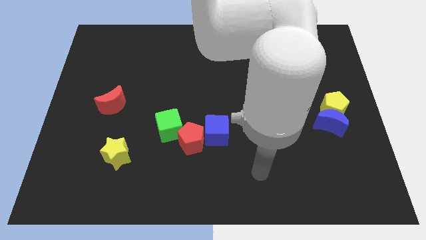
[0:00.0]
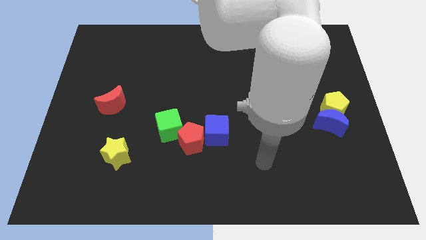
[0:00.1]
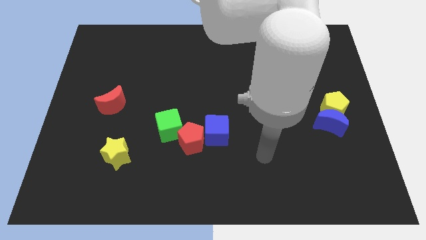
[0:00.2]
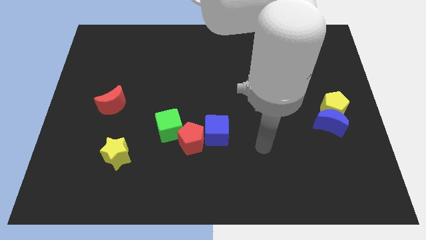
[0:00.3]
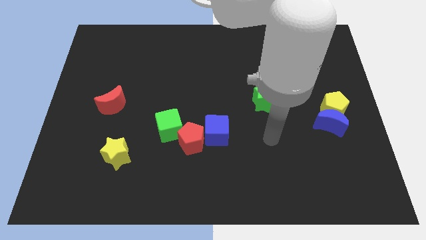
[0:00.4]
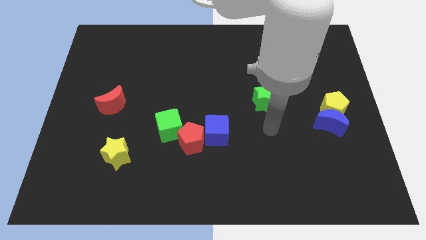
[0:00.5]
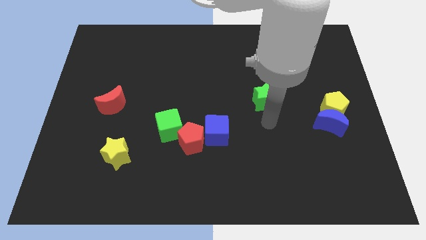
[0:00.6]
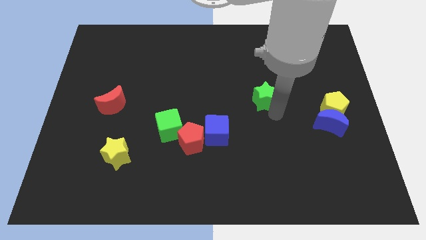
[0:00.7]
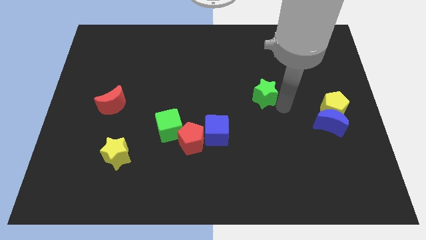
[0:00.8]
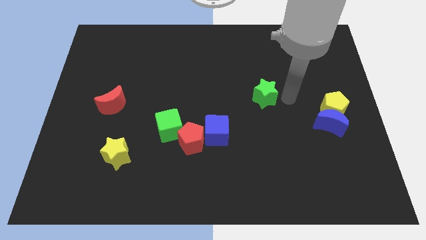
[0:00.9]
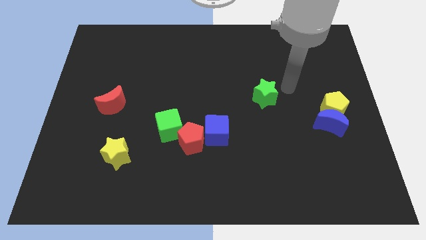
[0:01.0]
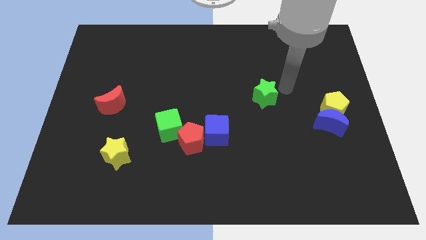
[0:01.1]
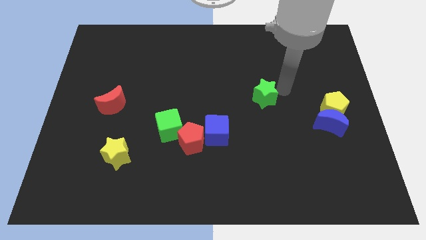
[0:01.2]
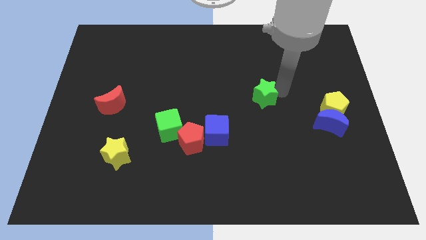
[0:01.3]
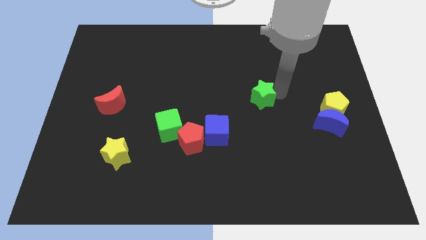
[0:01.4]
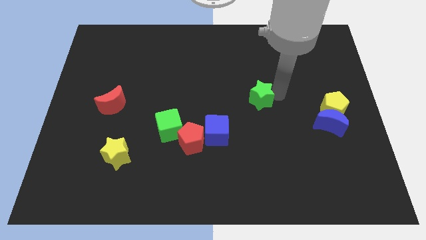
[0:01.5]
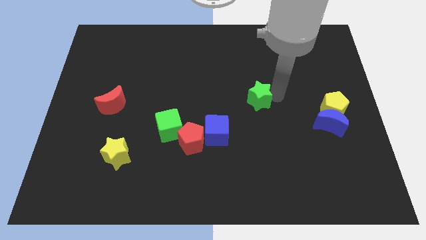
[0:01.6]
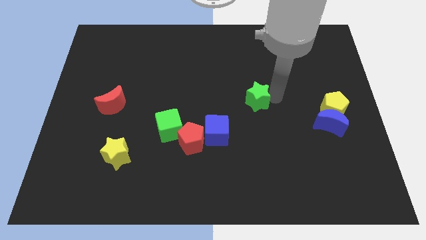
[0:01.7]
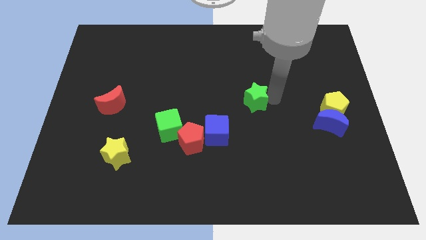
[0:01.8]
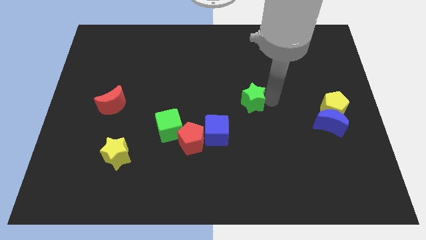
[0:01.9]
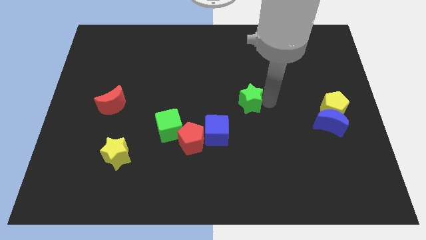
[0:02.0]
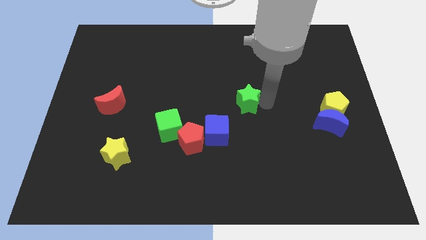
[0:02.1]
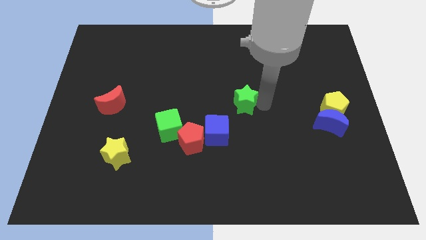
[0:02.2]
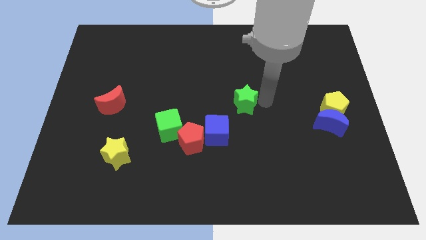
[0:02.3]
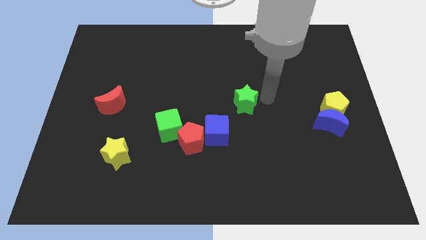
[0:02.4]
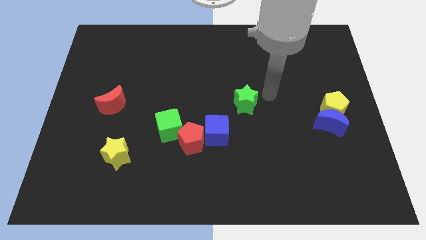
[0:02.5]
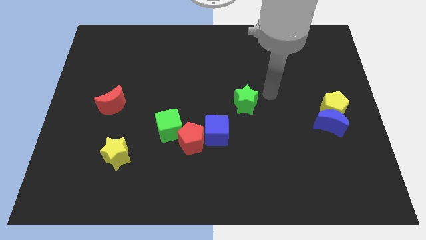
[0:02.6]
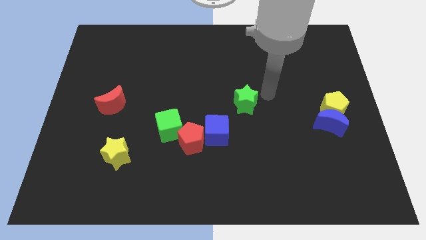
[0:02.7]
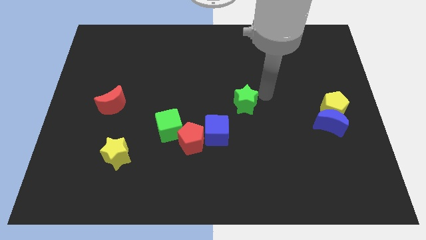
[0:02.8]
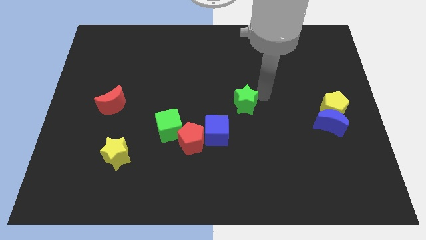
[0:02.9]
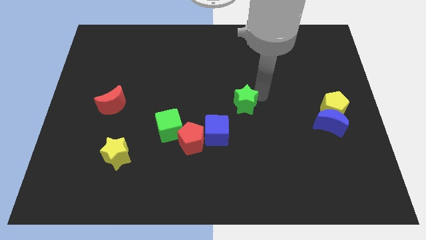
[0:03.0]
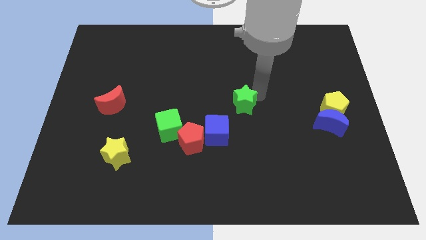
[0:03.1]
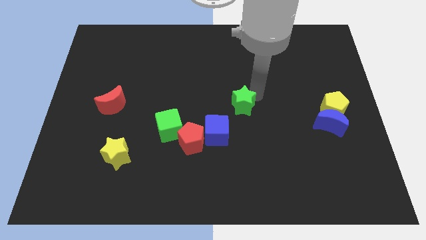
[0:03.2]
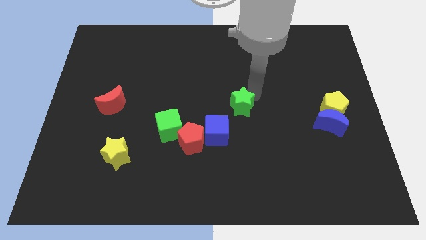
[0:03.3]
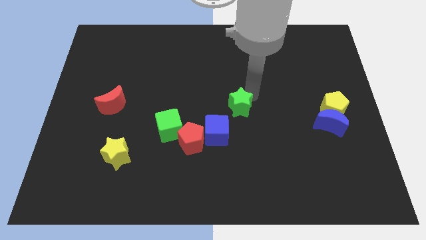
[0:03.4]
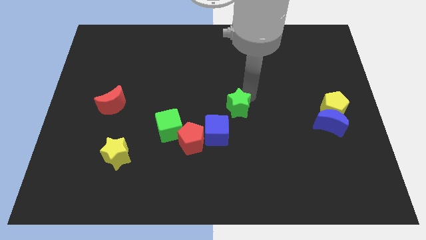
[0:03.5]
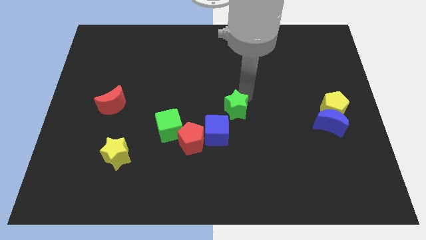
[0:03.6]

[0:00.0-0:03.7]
slide the green star somewhat to the left

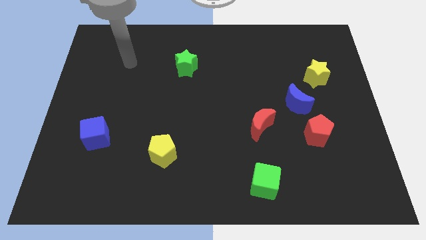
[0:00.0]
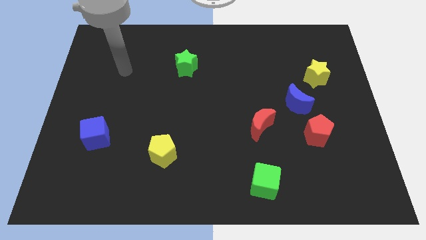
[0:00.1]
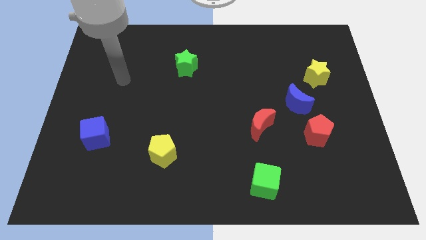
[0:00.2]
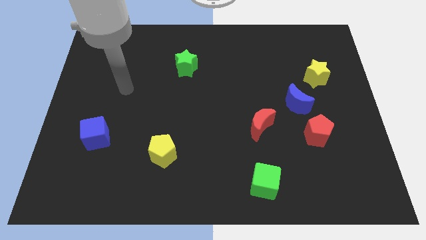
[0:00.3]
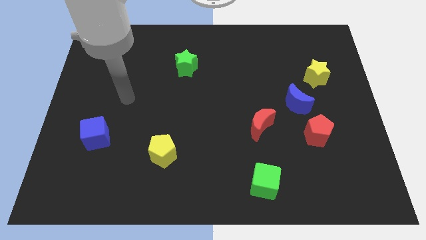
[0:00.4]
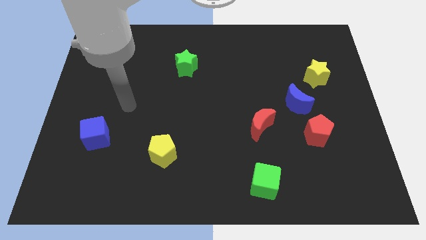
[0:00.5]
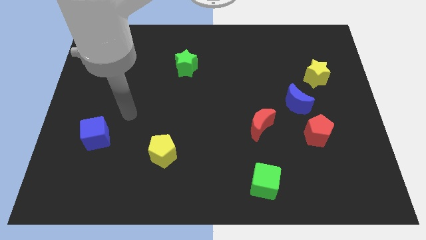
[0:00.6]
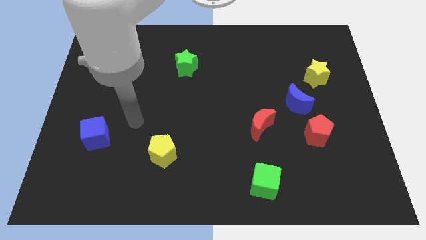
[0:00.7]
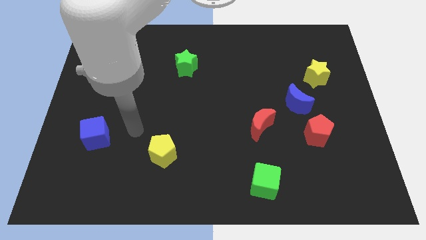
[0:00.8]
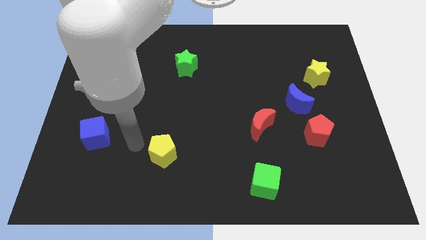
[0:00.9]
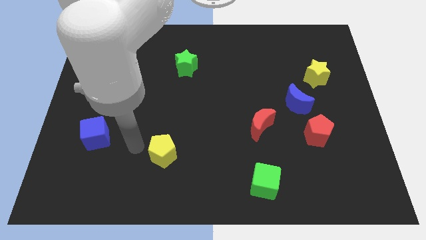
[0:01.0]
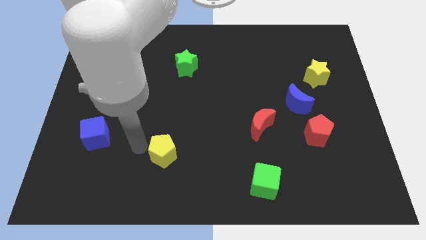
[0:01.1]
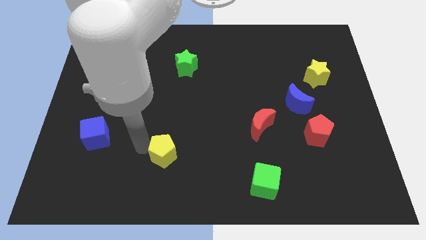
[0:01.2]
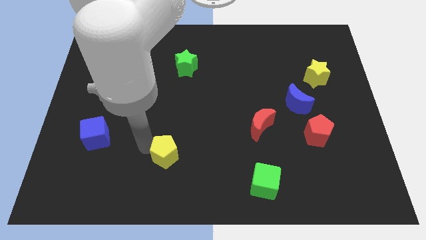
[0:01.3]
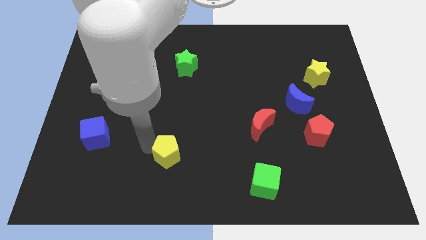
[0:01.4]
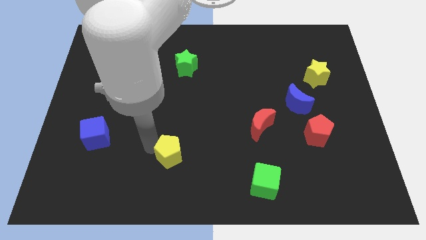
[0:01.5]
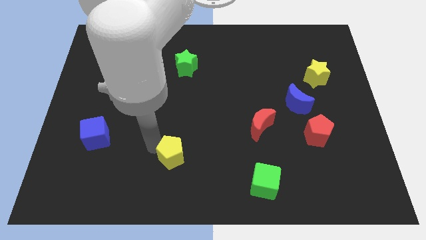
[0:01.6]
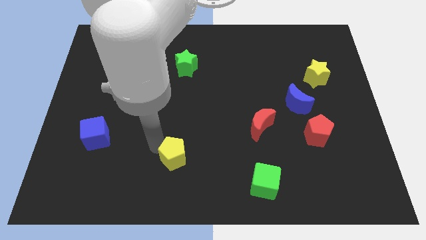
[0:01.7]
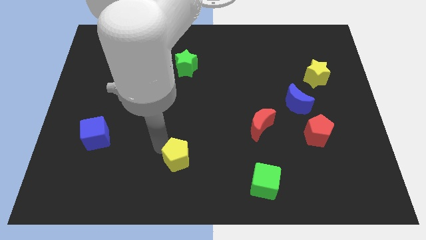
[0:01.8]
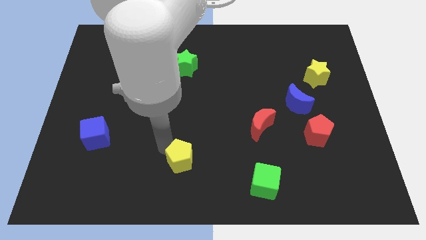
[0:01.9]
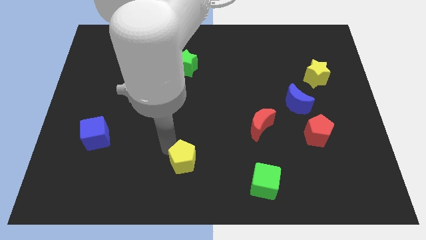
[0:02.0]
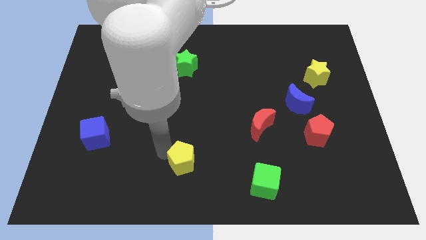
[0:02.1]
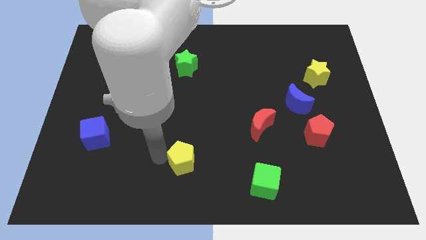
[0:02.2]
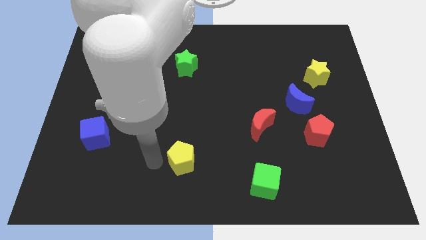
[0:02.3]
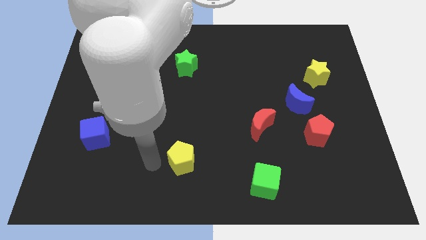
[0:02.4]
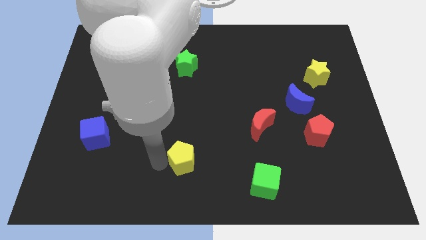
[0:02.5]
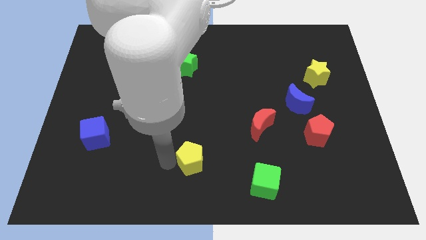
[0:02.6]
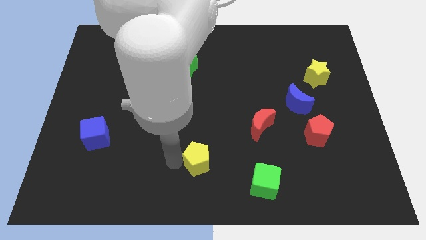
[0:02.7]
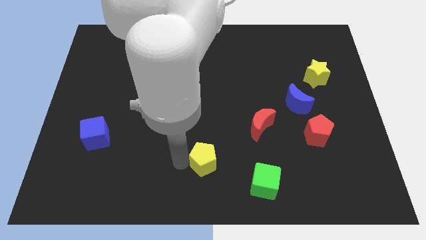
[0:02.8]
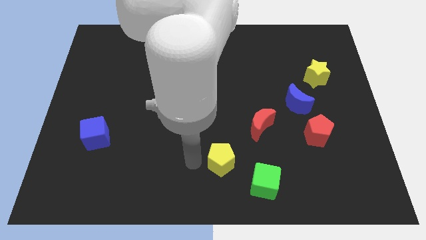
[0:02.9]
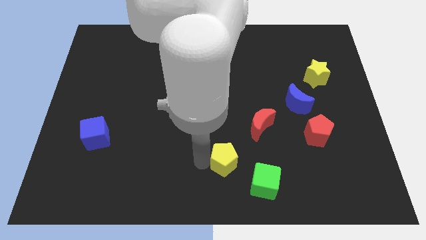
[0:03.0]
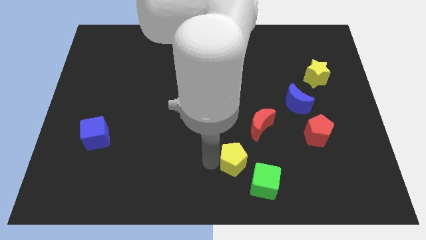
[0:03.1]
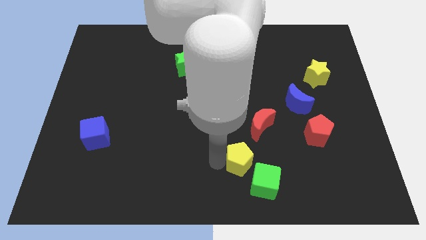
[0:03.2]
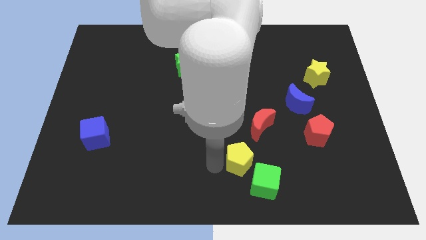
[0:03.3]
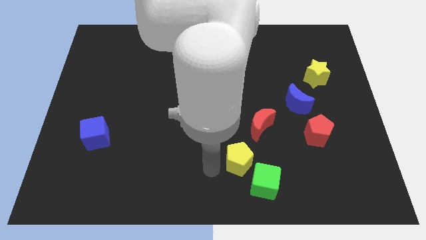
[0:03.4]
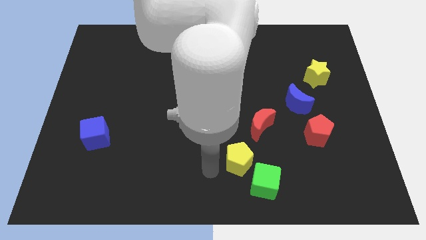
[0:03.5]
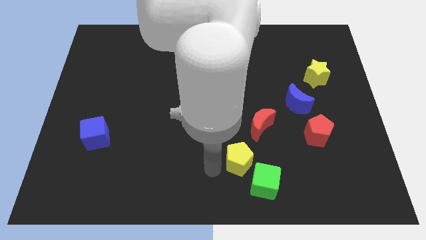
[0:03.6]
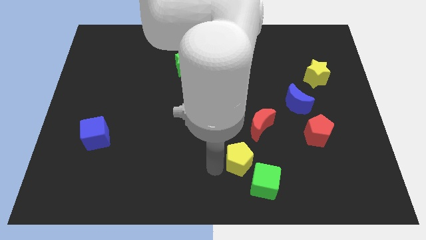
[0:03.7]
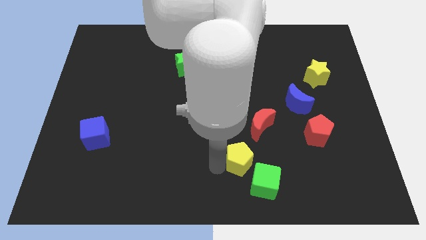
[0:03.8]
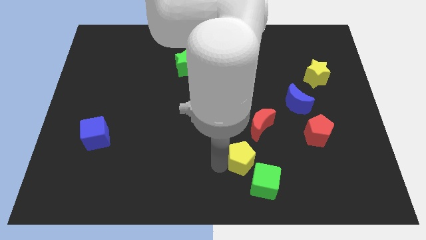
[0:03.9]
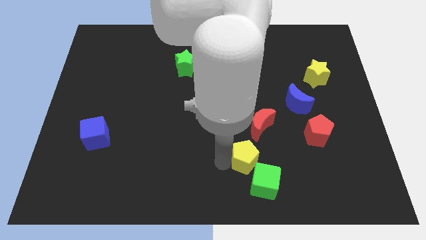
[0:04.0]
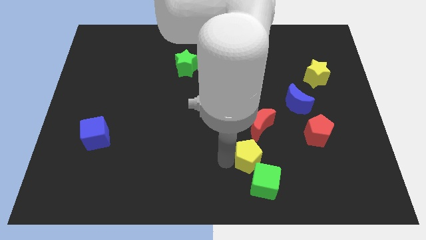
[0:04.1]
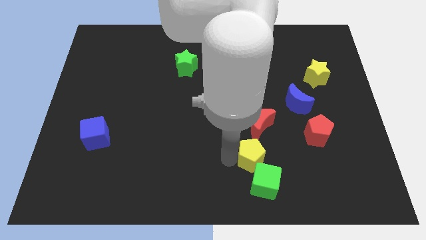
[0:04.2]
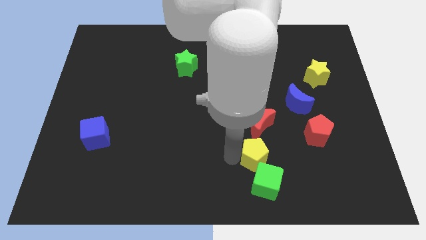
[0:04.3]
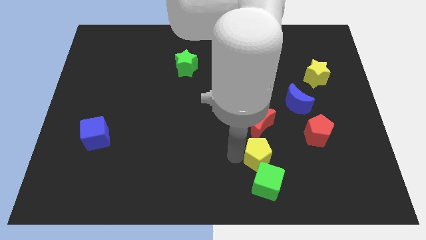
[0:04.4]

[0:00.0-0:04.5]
slide the yellow pentagon right
